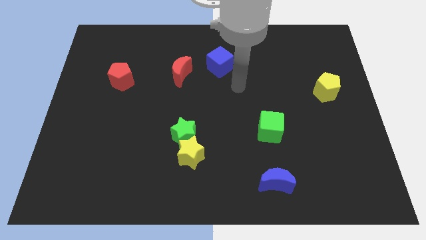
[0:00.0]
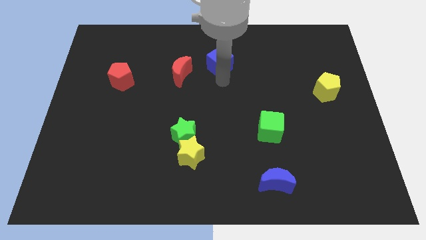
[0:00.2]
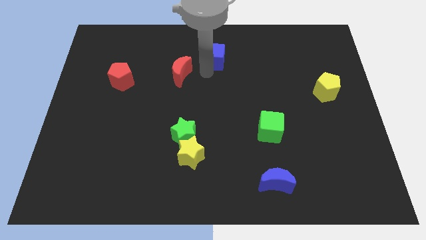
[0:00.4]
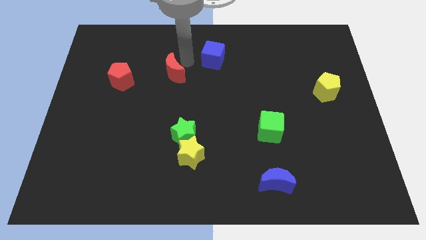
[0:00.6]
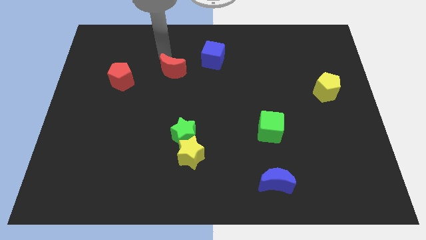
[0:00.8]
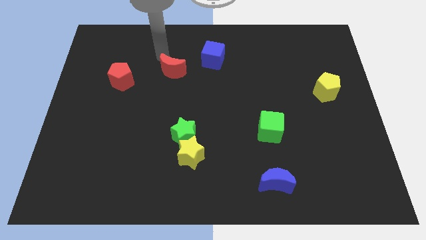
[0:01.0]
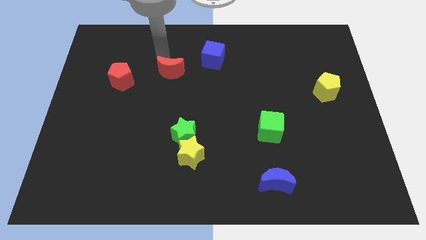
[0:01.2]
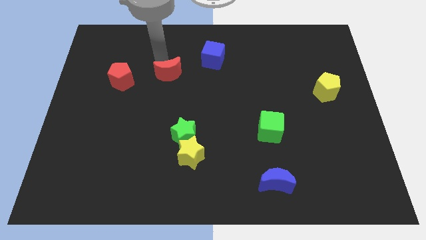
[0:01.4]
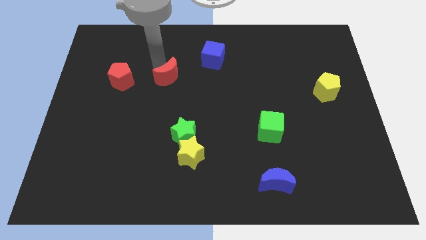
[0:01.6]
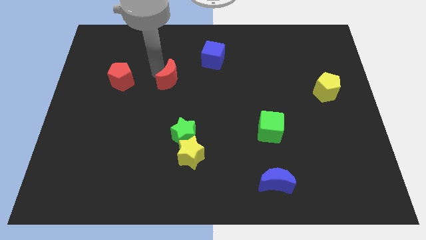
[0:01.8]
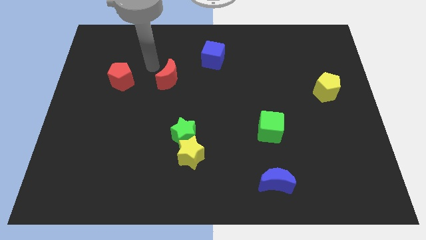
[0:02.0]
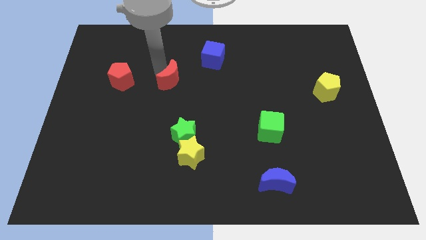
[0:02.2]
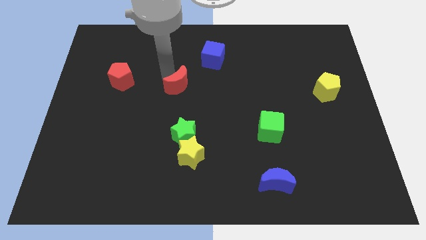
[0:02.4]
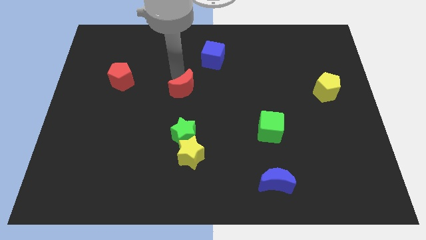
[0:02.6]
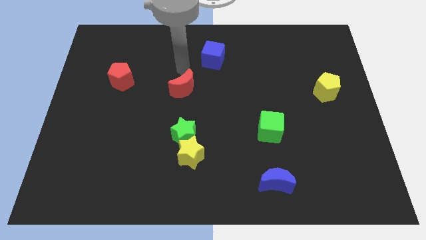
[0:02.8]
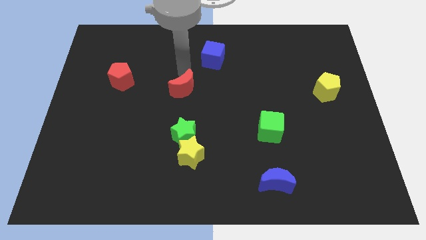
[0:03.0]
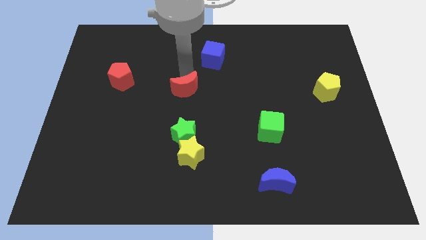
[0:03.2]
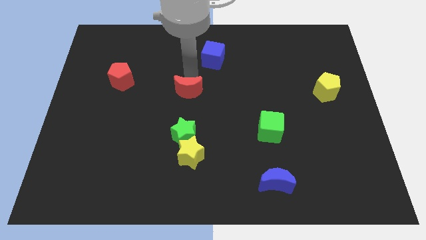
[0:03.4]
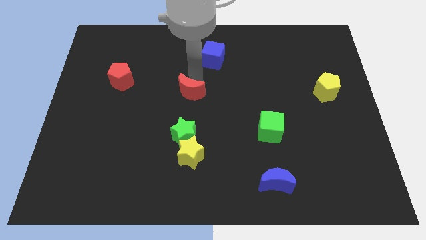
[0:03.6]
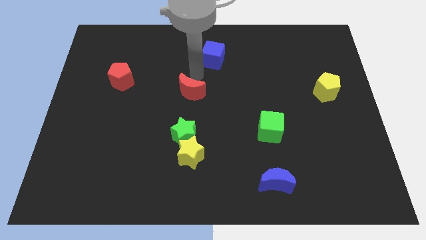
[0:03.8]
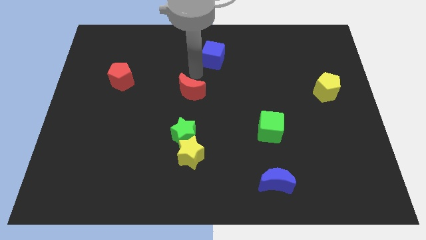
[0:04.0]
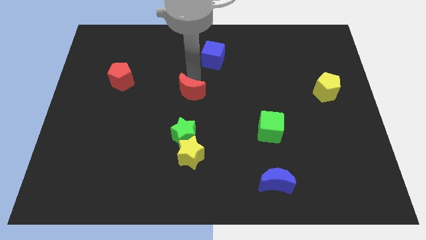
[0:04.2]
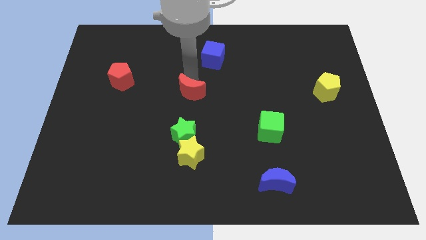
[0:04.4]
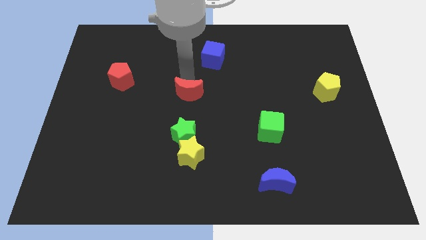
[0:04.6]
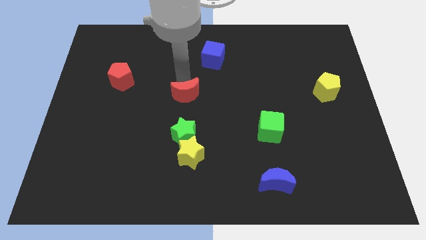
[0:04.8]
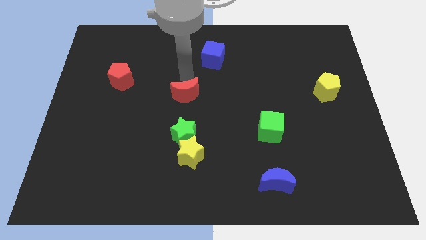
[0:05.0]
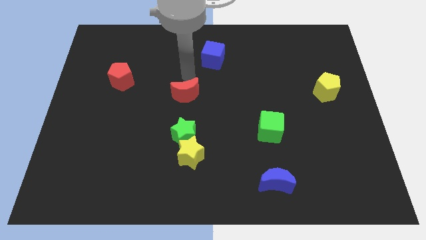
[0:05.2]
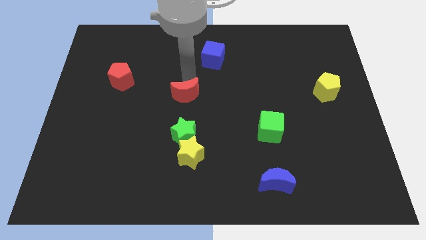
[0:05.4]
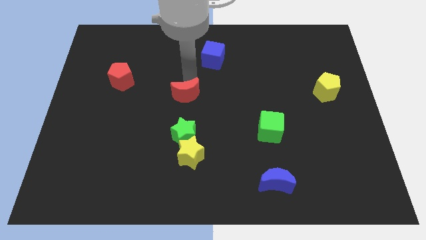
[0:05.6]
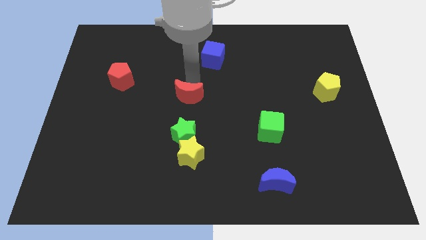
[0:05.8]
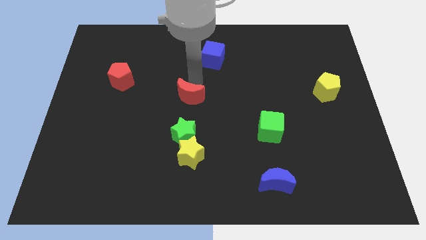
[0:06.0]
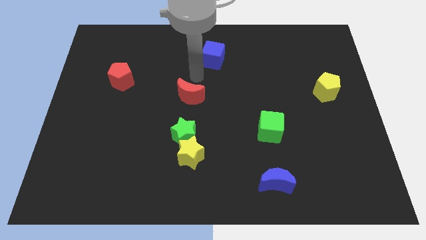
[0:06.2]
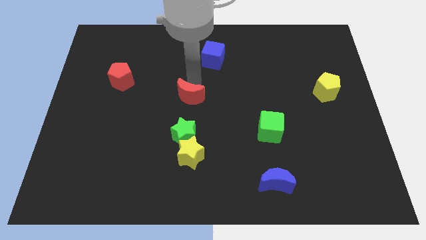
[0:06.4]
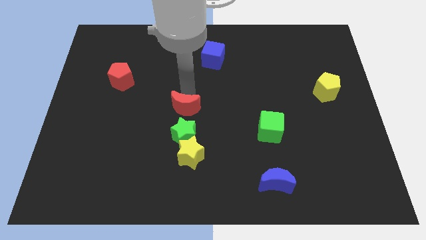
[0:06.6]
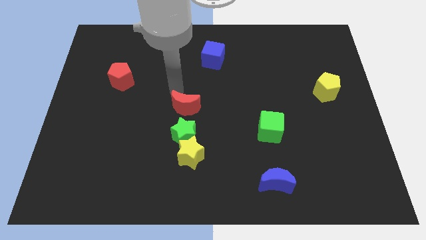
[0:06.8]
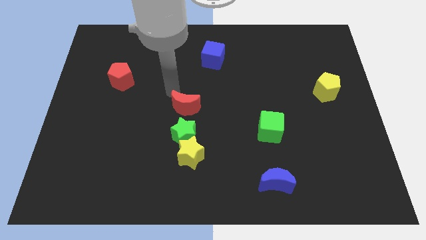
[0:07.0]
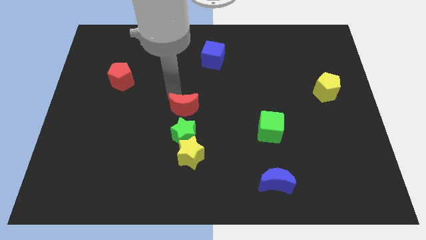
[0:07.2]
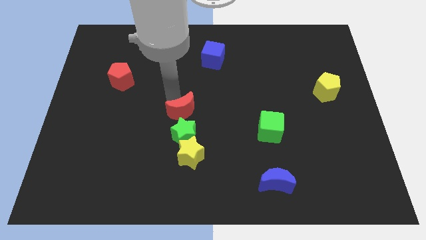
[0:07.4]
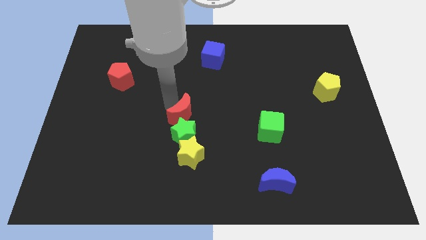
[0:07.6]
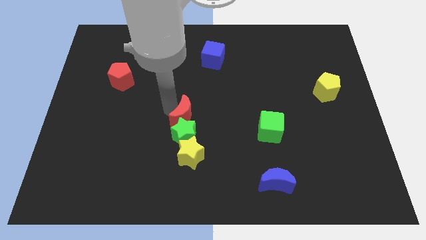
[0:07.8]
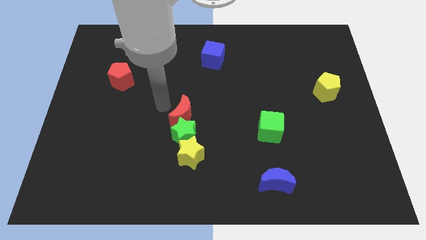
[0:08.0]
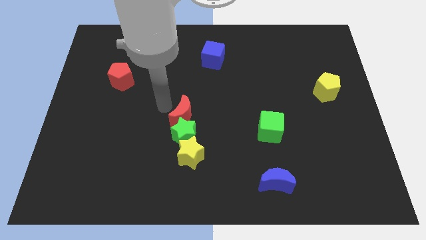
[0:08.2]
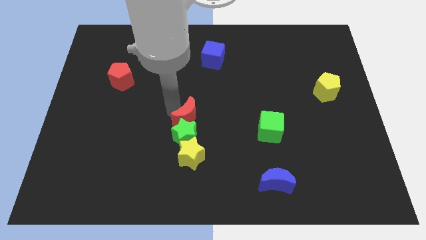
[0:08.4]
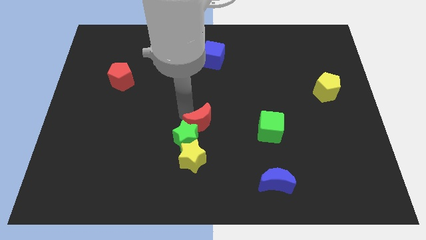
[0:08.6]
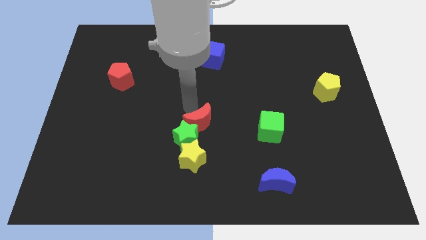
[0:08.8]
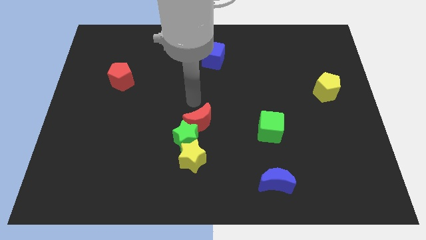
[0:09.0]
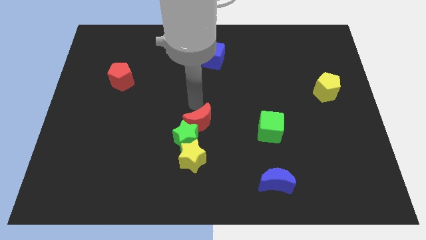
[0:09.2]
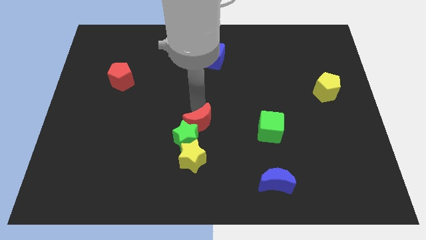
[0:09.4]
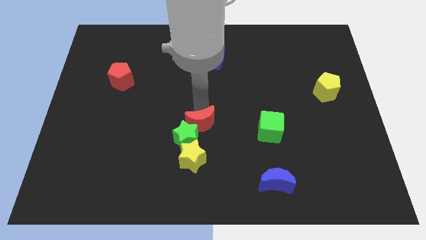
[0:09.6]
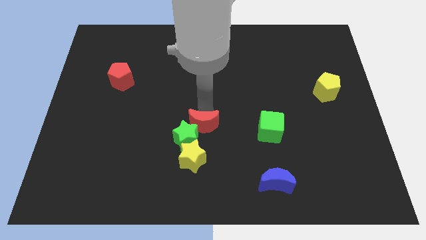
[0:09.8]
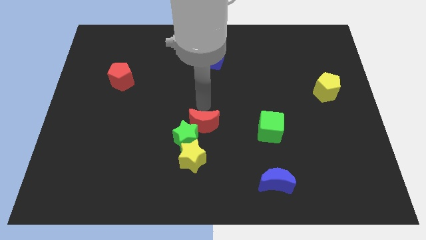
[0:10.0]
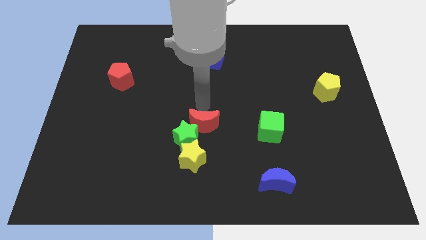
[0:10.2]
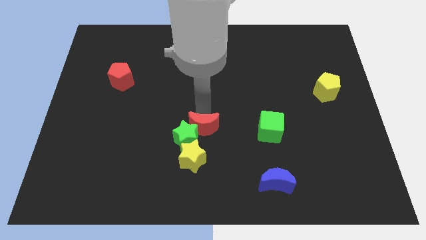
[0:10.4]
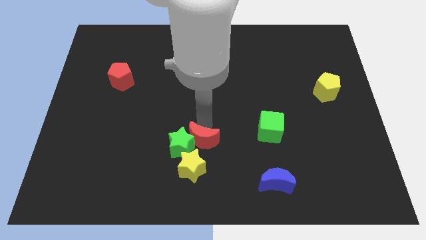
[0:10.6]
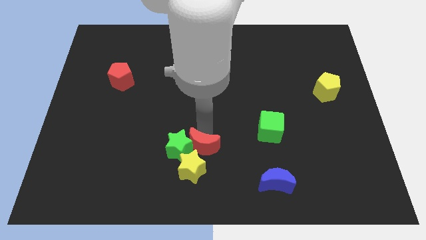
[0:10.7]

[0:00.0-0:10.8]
move the red moon towards the yellow star

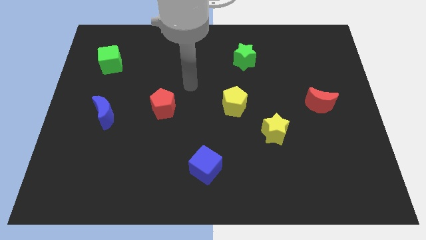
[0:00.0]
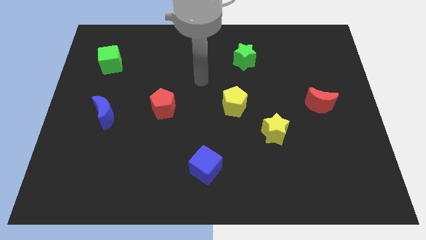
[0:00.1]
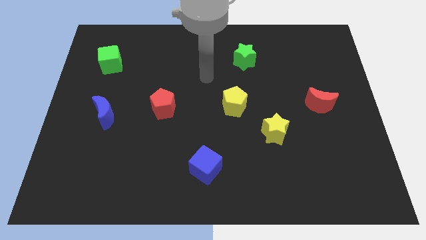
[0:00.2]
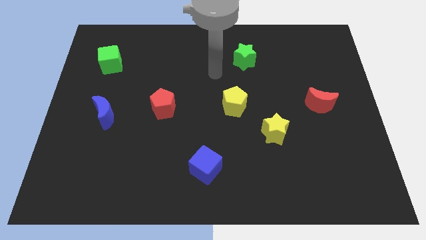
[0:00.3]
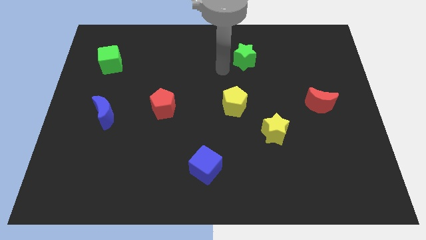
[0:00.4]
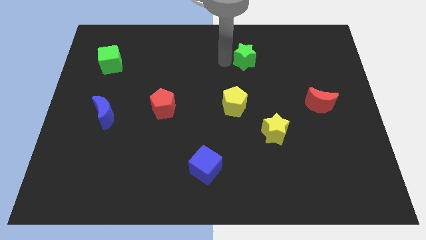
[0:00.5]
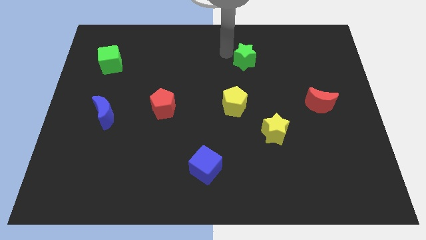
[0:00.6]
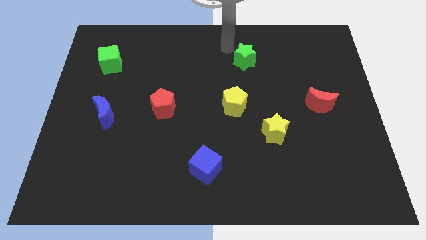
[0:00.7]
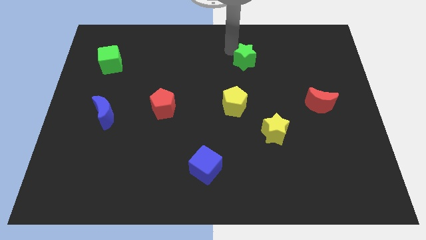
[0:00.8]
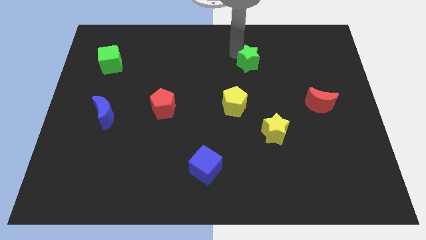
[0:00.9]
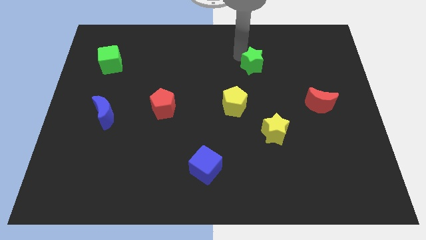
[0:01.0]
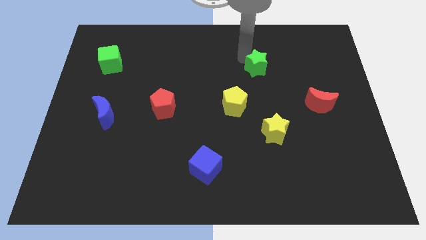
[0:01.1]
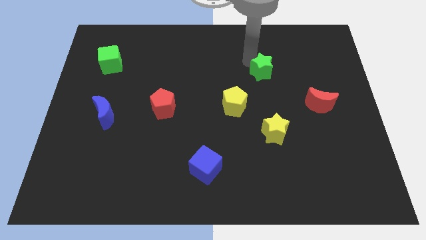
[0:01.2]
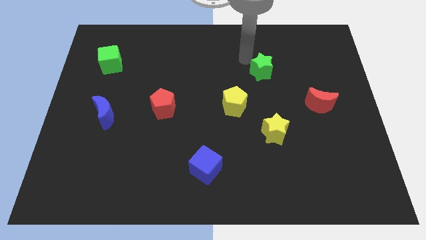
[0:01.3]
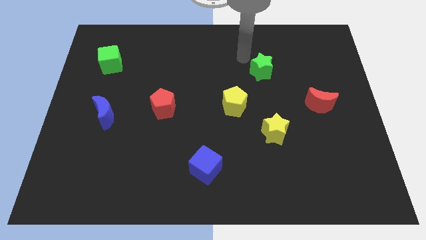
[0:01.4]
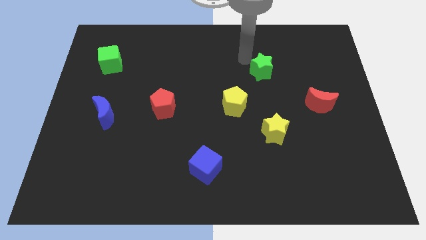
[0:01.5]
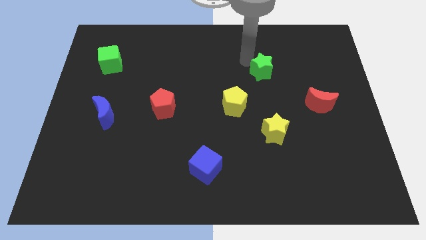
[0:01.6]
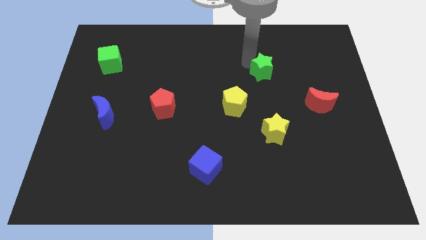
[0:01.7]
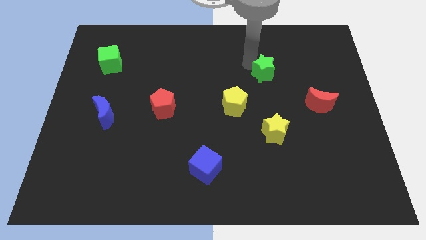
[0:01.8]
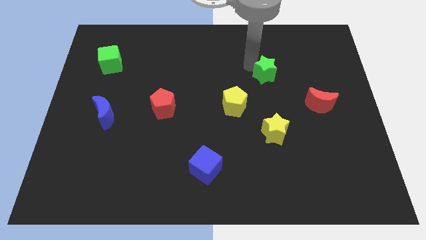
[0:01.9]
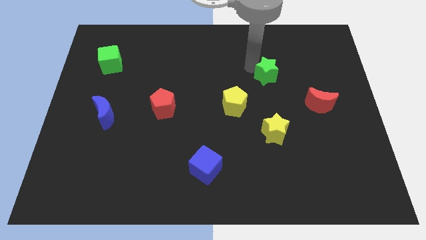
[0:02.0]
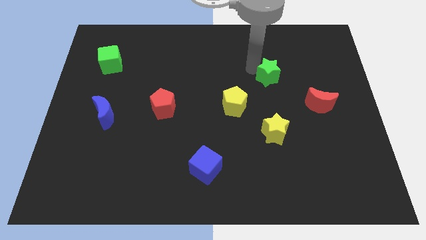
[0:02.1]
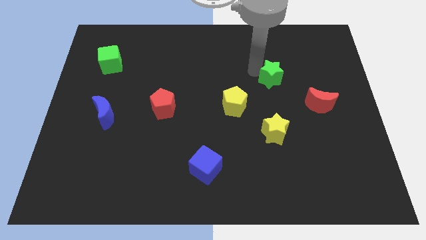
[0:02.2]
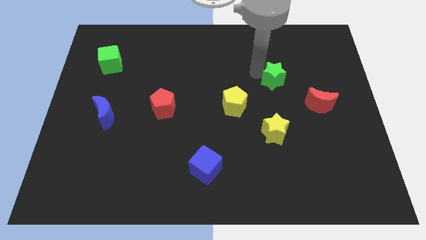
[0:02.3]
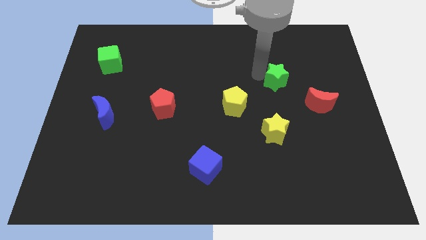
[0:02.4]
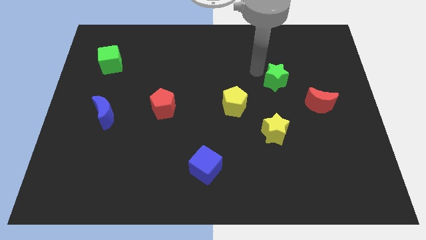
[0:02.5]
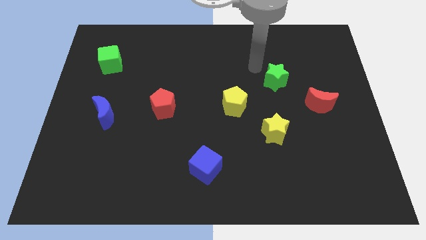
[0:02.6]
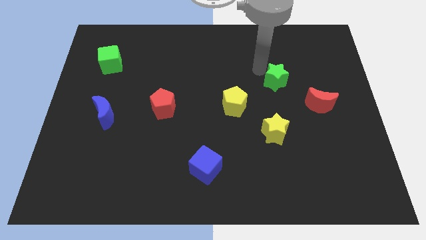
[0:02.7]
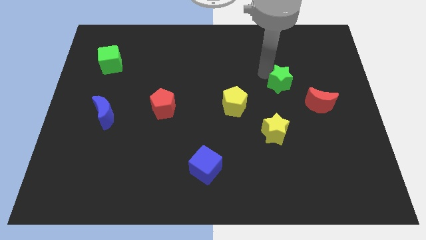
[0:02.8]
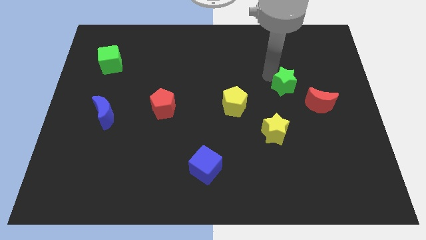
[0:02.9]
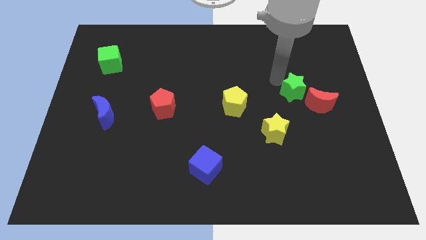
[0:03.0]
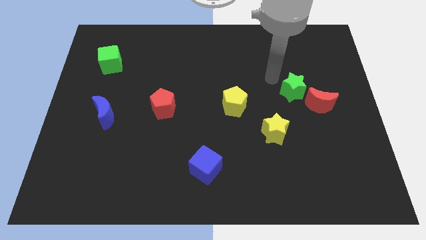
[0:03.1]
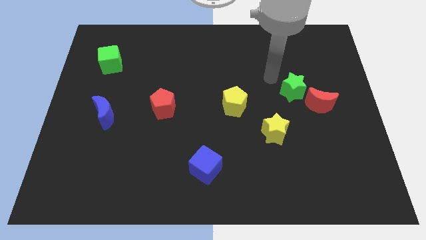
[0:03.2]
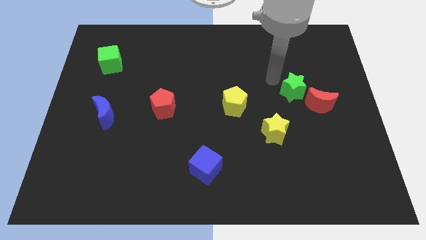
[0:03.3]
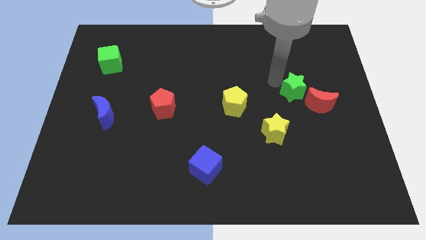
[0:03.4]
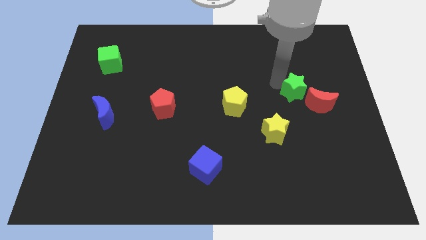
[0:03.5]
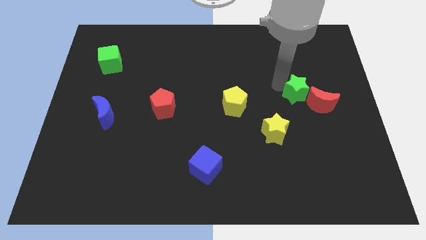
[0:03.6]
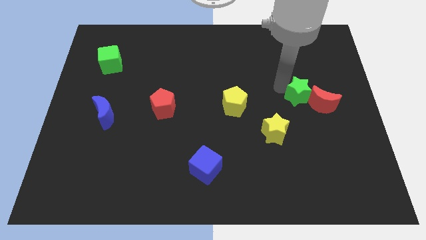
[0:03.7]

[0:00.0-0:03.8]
slide the green star to the red moon
